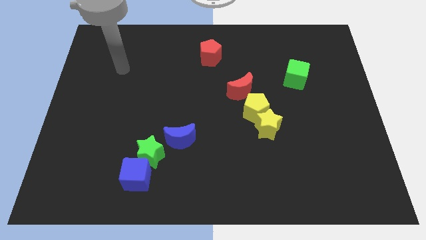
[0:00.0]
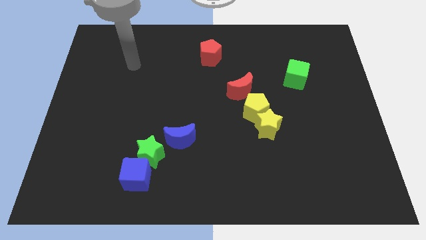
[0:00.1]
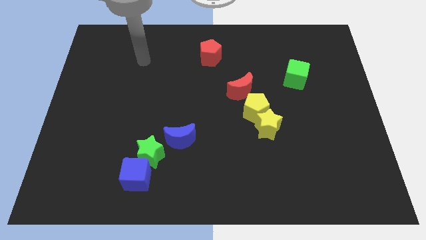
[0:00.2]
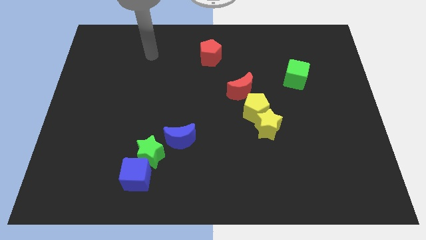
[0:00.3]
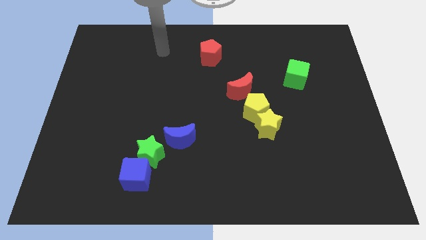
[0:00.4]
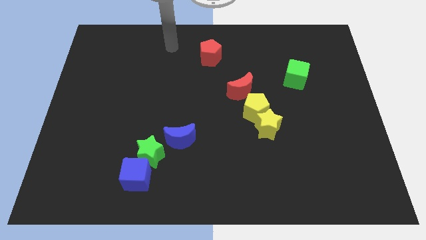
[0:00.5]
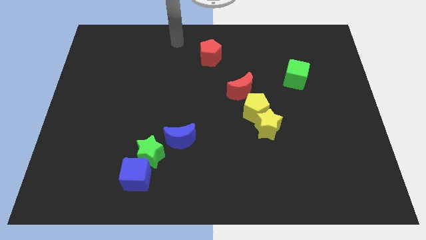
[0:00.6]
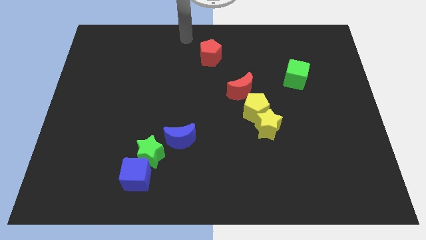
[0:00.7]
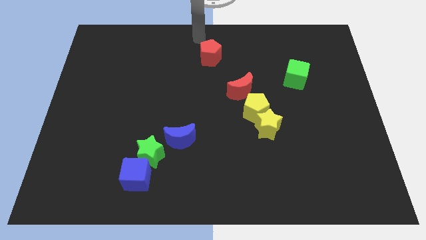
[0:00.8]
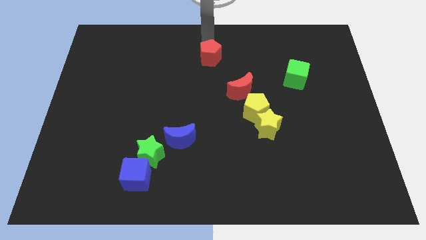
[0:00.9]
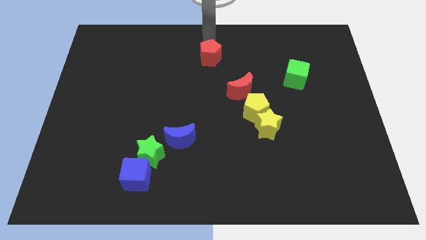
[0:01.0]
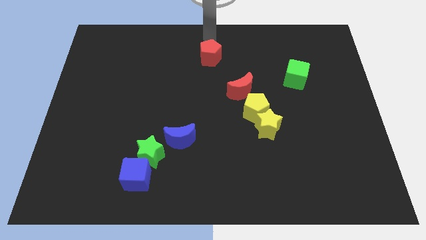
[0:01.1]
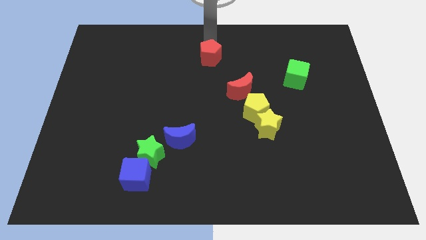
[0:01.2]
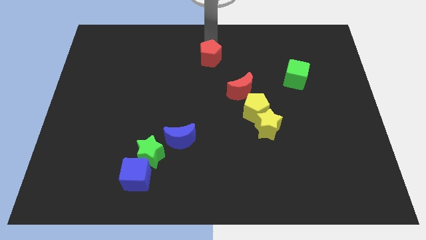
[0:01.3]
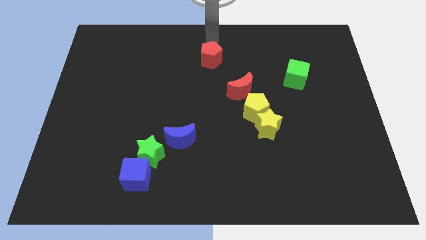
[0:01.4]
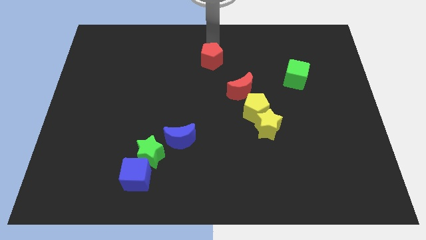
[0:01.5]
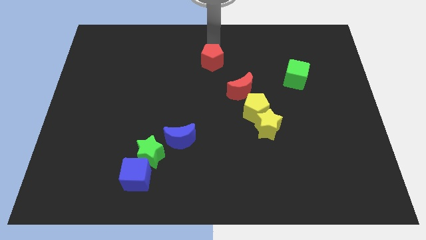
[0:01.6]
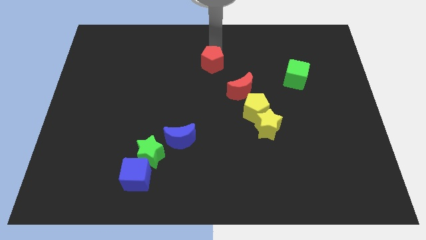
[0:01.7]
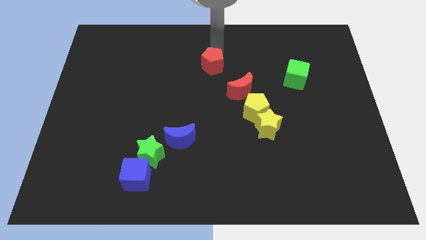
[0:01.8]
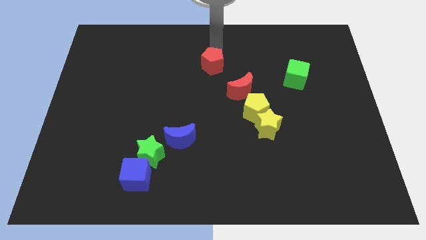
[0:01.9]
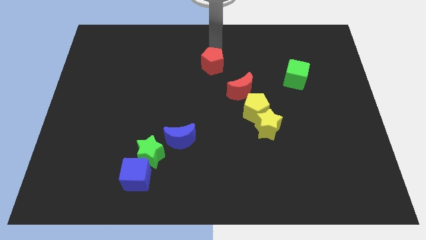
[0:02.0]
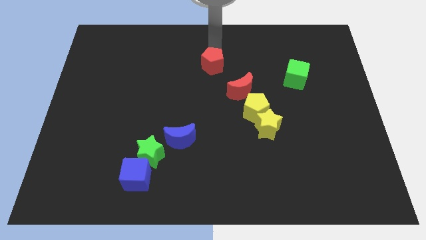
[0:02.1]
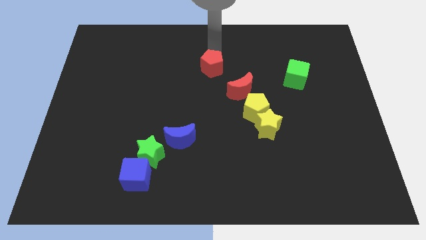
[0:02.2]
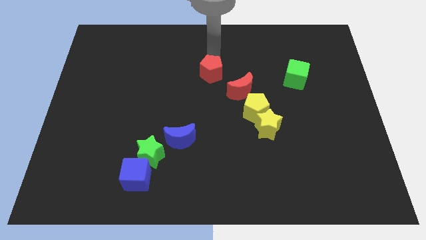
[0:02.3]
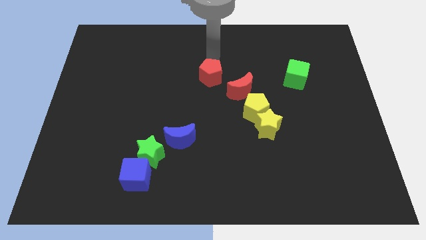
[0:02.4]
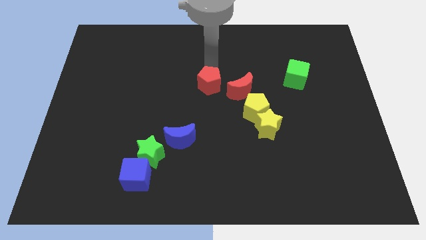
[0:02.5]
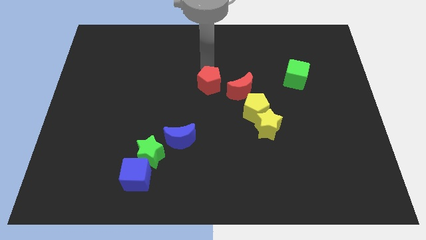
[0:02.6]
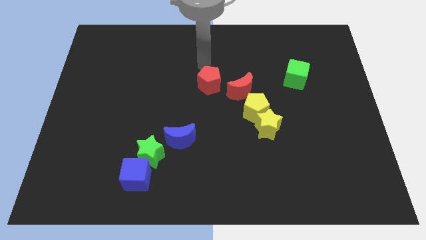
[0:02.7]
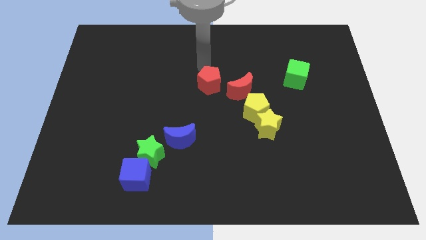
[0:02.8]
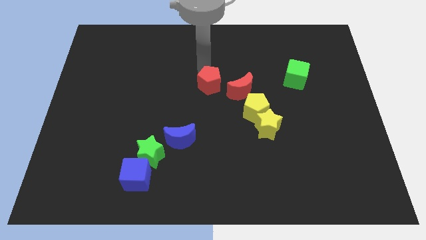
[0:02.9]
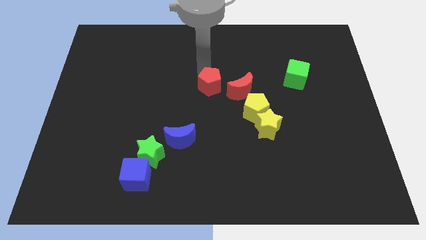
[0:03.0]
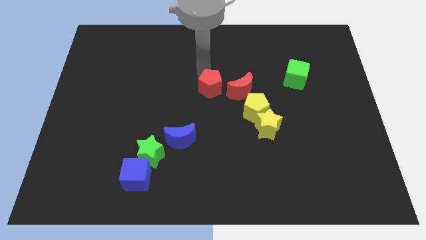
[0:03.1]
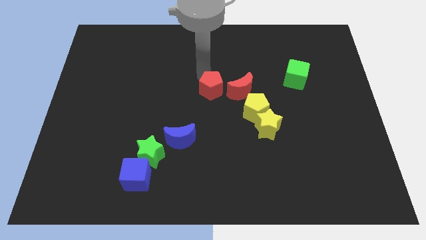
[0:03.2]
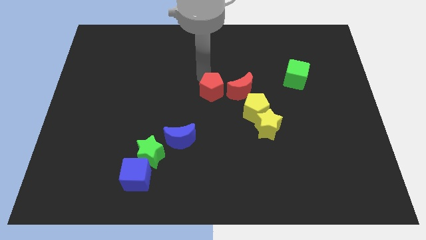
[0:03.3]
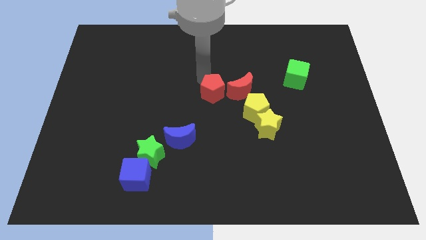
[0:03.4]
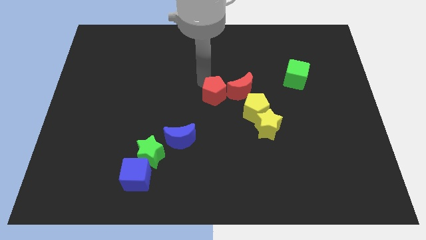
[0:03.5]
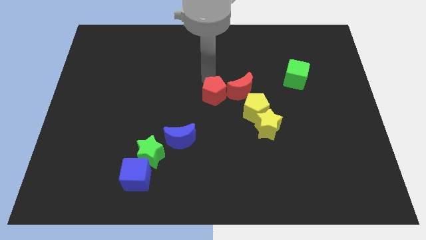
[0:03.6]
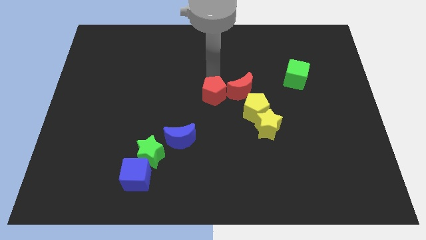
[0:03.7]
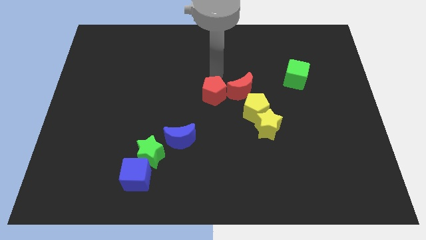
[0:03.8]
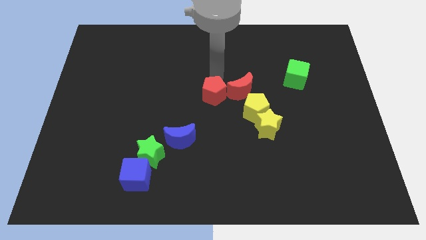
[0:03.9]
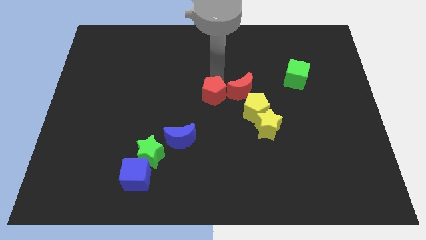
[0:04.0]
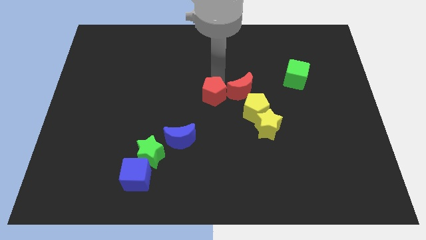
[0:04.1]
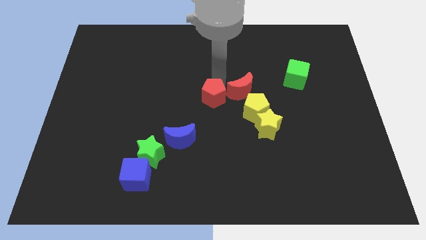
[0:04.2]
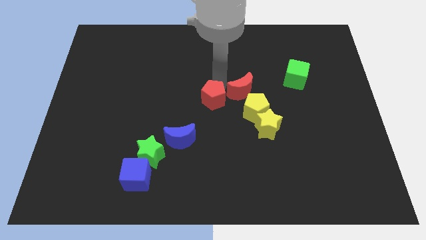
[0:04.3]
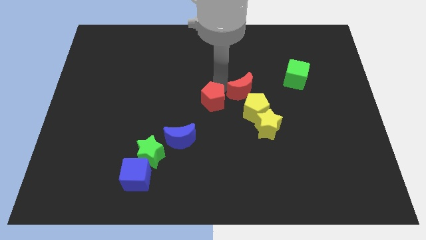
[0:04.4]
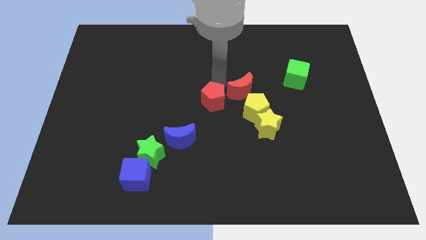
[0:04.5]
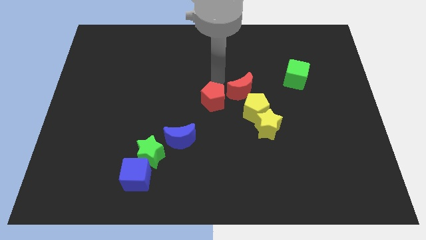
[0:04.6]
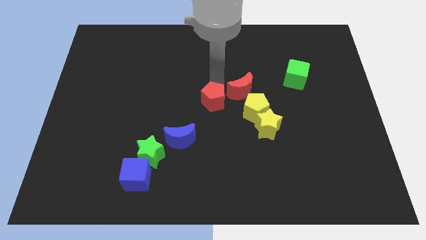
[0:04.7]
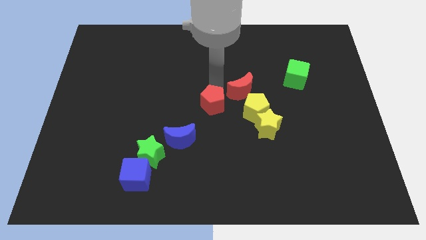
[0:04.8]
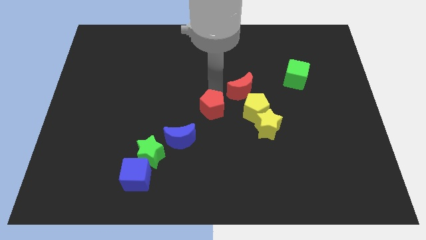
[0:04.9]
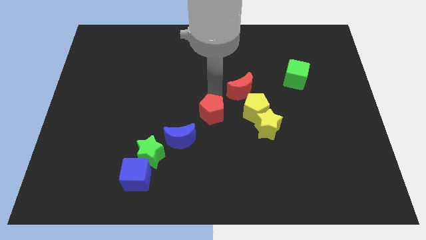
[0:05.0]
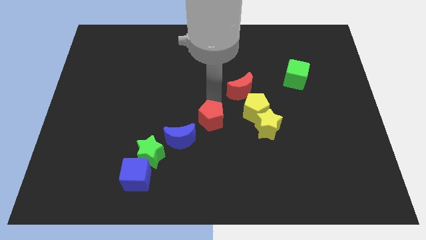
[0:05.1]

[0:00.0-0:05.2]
slide the red pentagon downwards

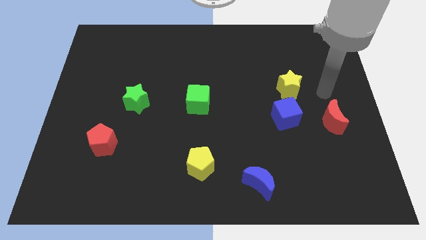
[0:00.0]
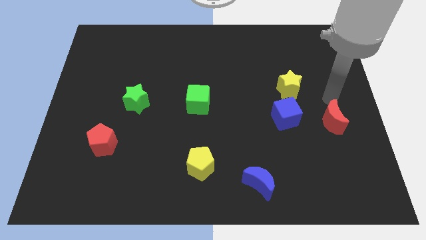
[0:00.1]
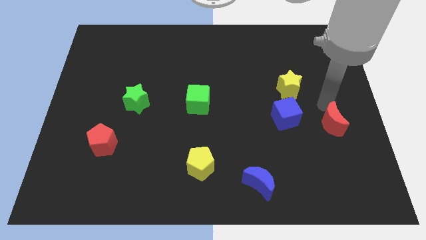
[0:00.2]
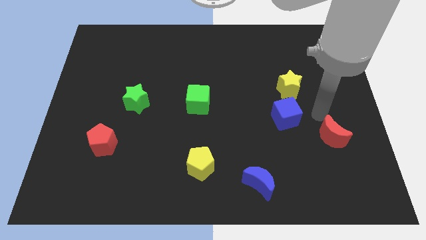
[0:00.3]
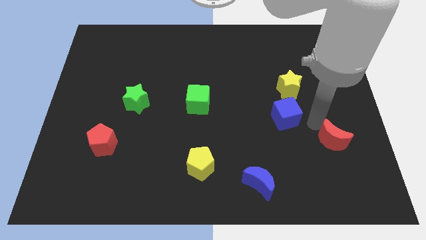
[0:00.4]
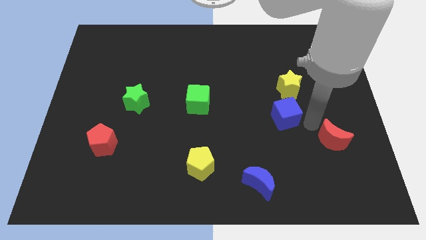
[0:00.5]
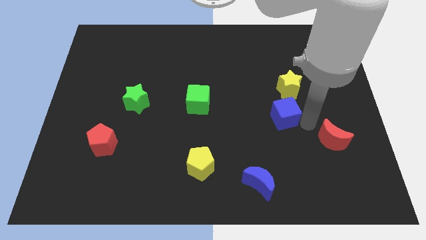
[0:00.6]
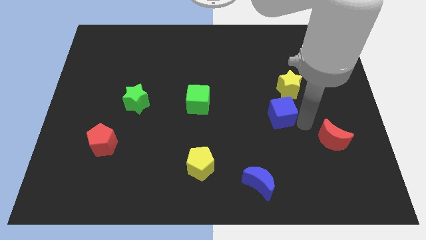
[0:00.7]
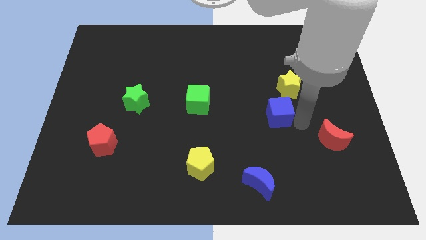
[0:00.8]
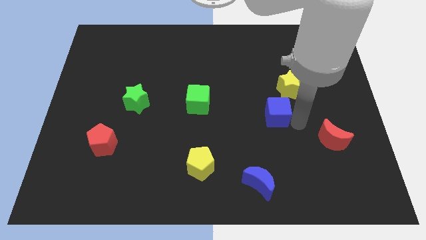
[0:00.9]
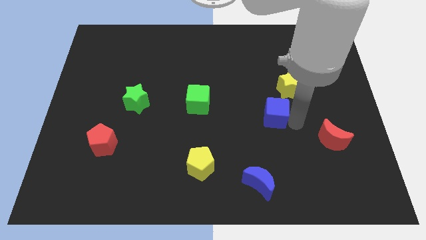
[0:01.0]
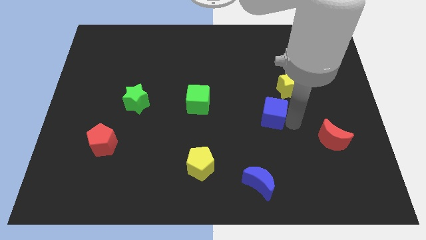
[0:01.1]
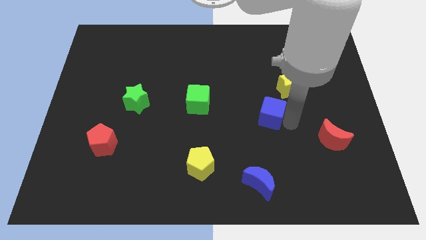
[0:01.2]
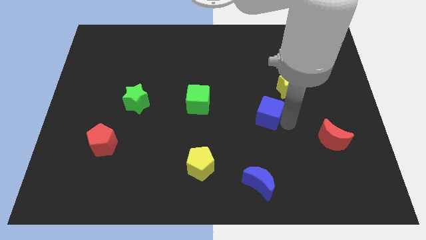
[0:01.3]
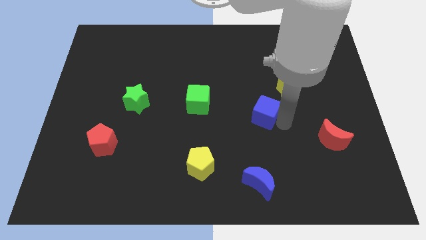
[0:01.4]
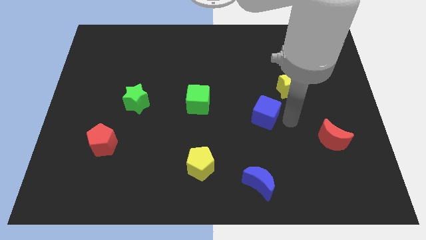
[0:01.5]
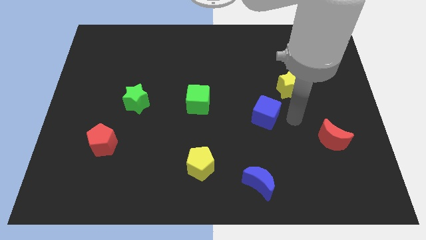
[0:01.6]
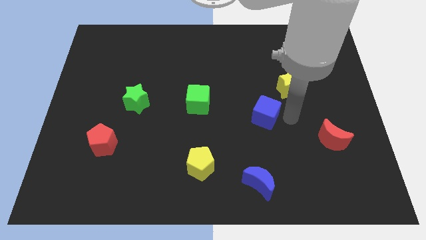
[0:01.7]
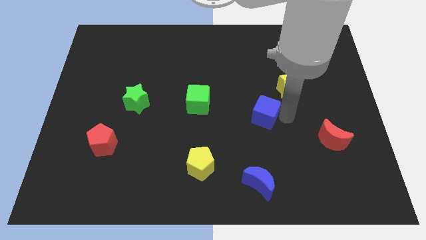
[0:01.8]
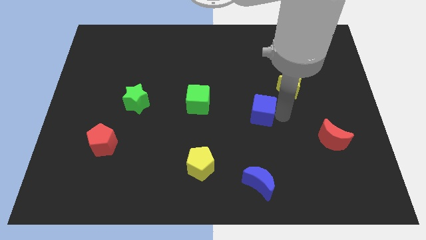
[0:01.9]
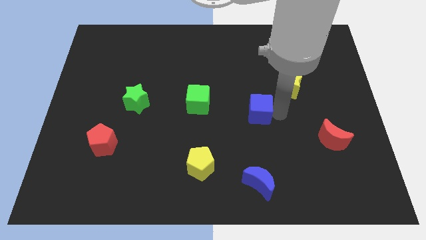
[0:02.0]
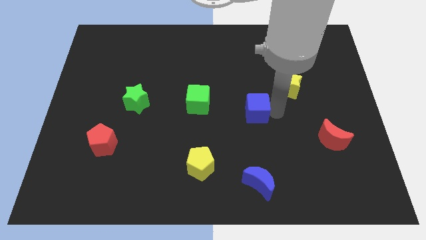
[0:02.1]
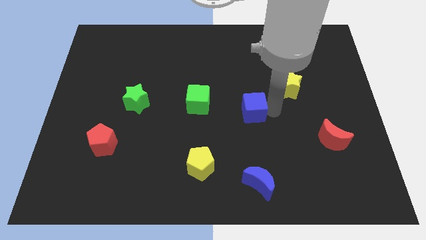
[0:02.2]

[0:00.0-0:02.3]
move the blue cube a bit left

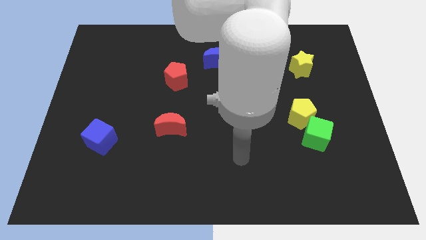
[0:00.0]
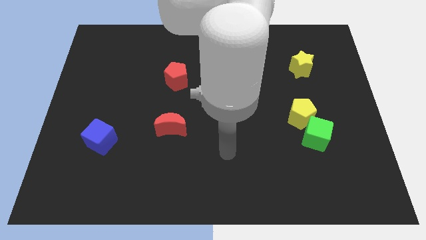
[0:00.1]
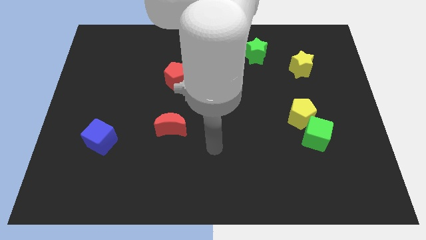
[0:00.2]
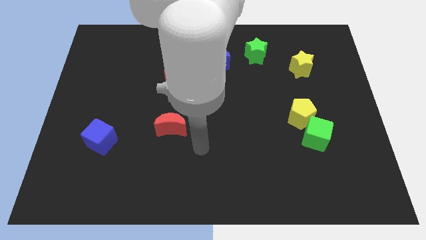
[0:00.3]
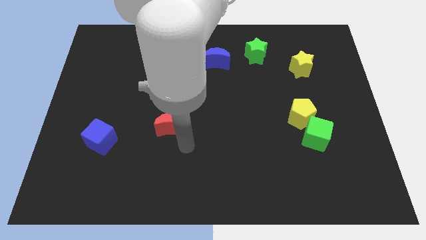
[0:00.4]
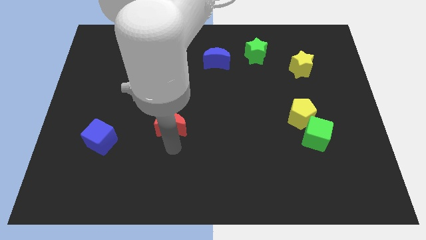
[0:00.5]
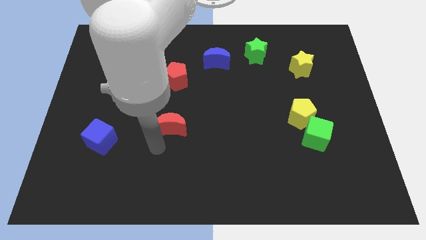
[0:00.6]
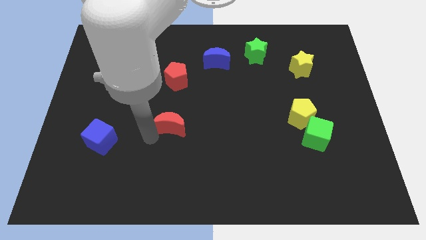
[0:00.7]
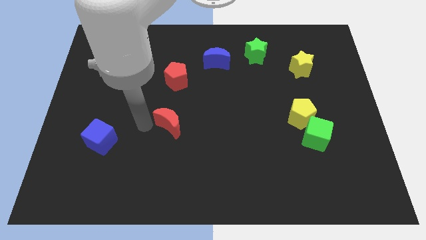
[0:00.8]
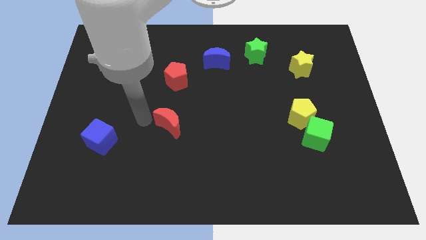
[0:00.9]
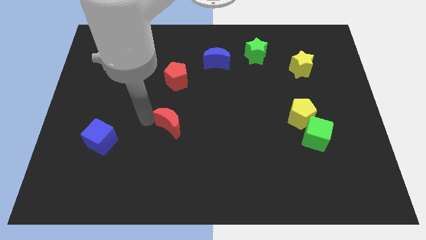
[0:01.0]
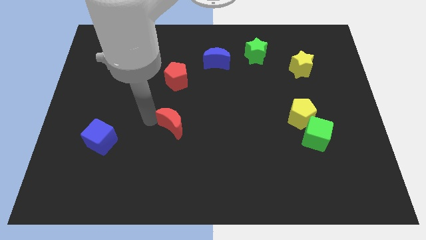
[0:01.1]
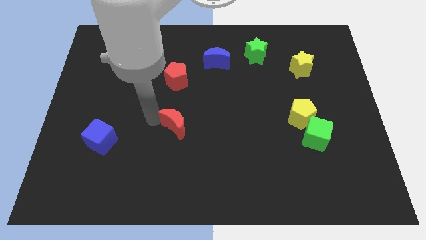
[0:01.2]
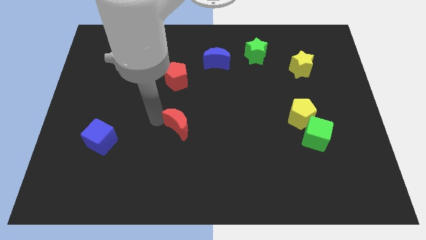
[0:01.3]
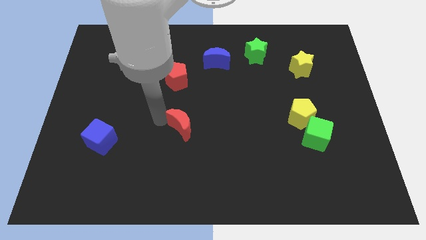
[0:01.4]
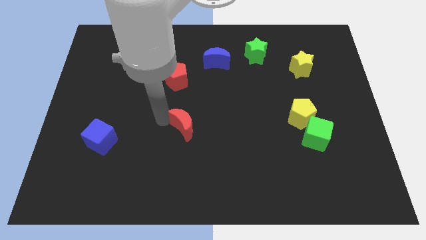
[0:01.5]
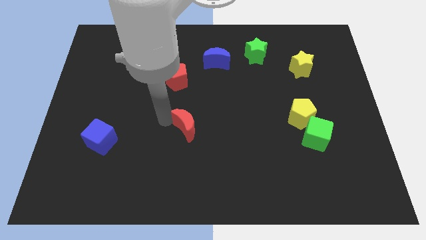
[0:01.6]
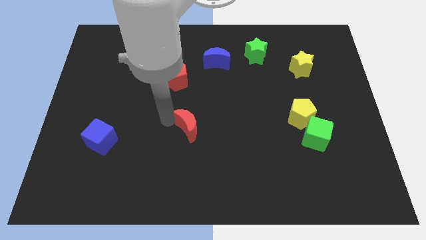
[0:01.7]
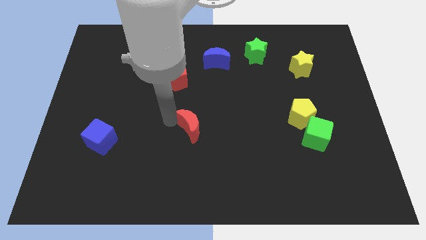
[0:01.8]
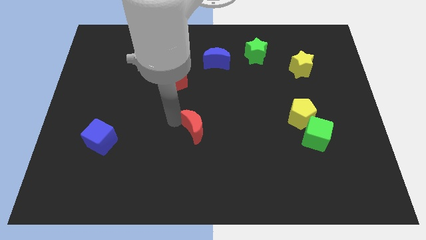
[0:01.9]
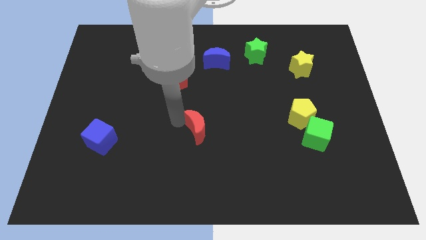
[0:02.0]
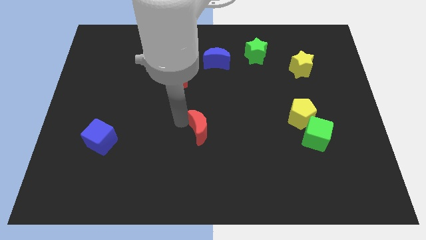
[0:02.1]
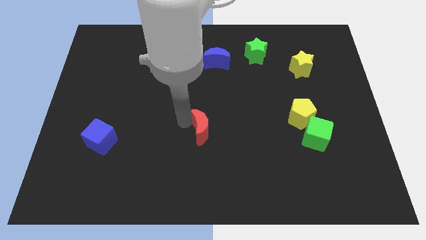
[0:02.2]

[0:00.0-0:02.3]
move the red moon to the right slightly
